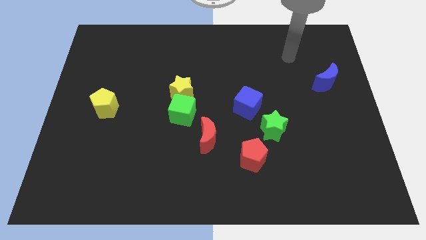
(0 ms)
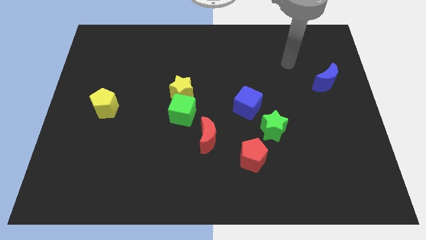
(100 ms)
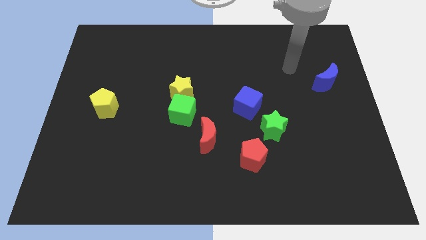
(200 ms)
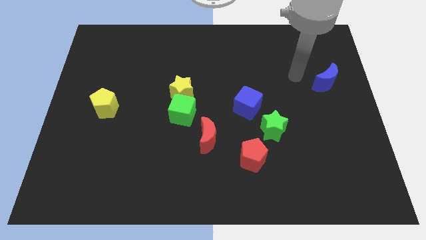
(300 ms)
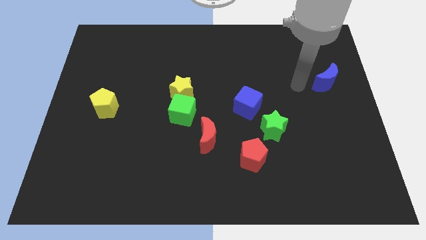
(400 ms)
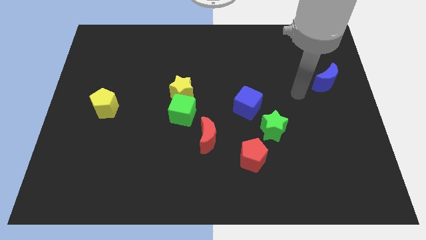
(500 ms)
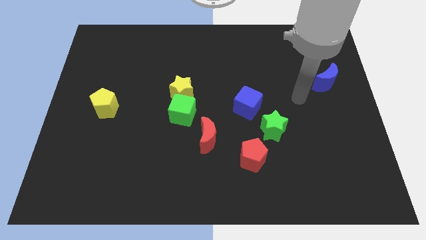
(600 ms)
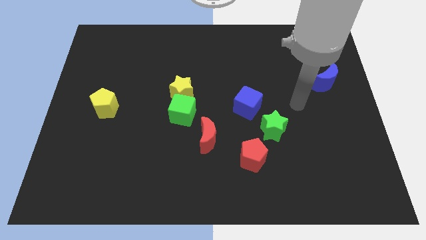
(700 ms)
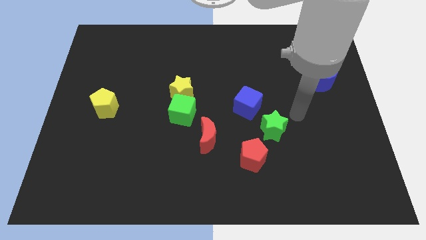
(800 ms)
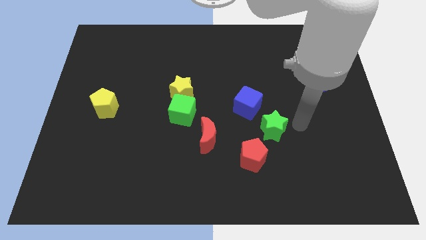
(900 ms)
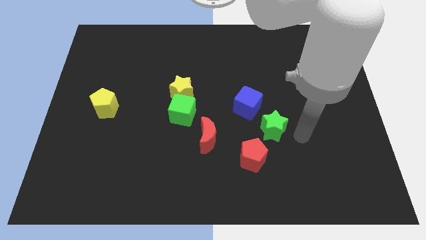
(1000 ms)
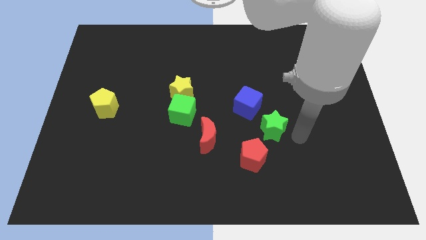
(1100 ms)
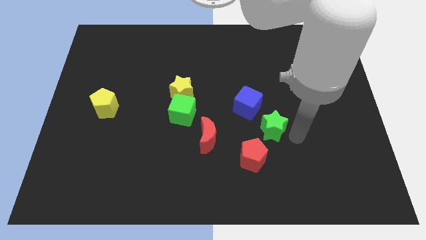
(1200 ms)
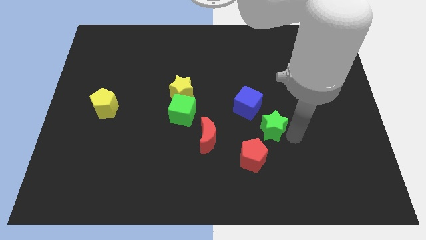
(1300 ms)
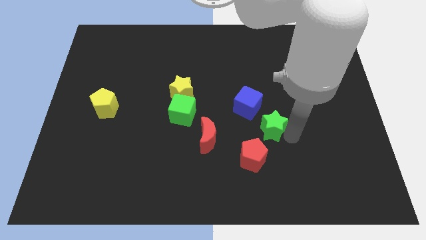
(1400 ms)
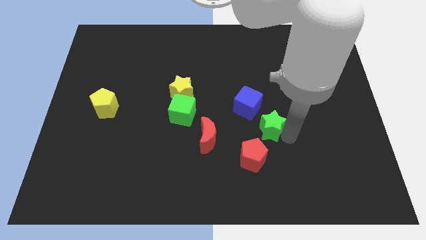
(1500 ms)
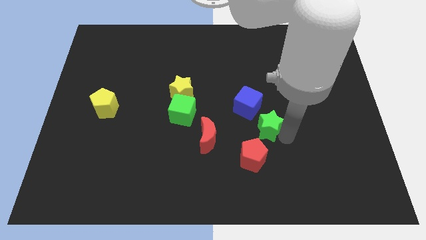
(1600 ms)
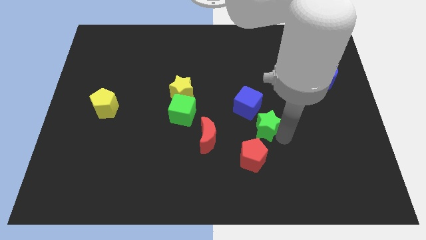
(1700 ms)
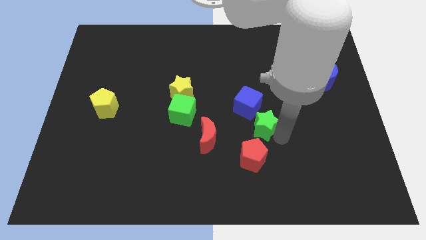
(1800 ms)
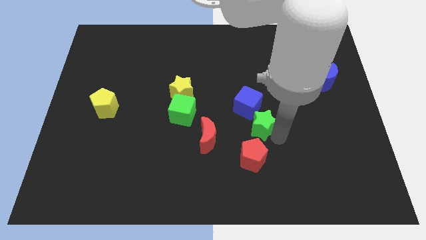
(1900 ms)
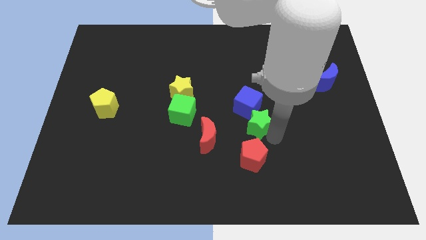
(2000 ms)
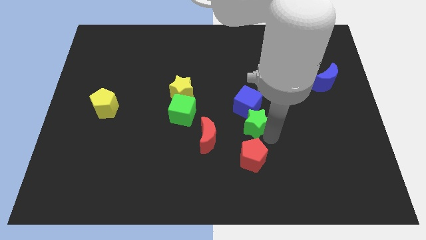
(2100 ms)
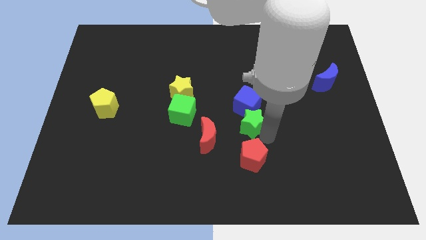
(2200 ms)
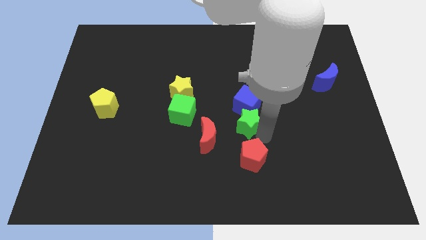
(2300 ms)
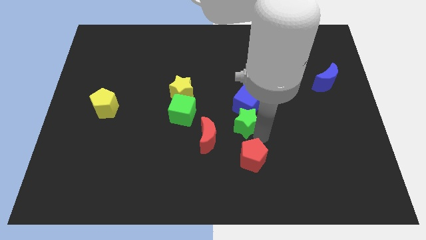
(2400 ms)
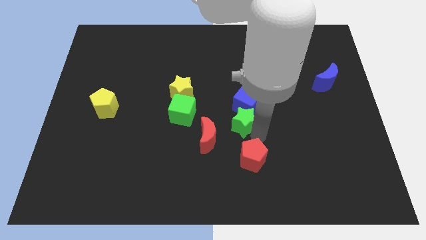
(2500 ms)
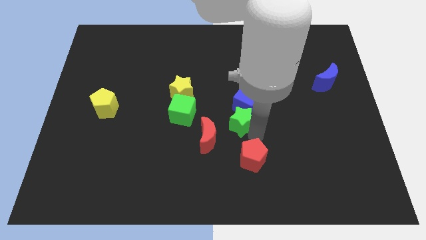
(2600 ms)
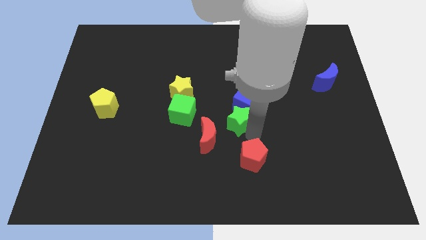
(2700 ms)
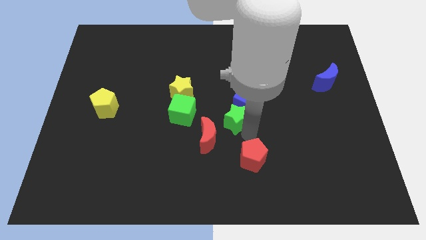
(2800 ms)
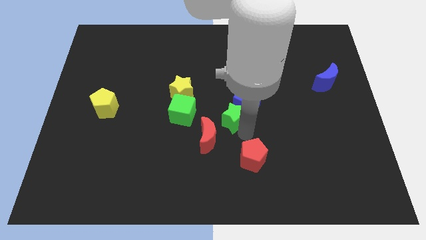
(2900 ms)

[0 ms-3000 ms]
push the green star slightly diagonally upwards and left

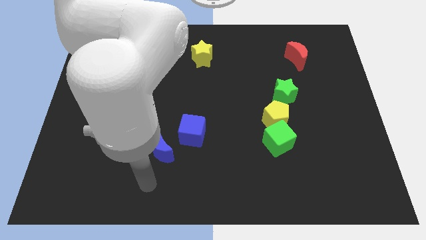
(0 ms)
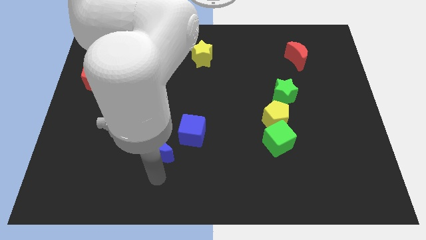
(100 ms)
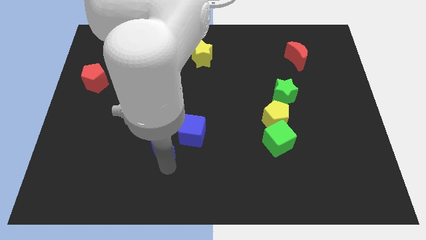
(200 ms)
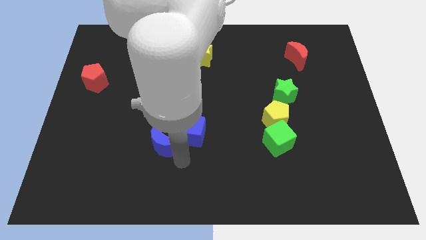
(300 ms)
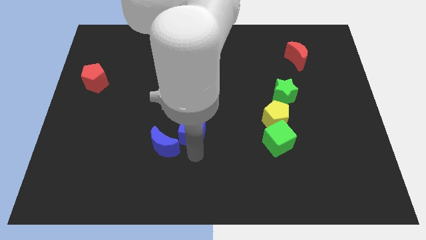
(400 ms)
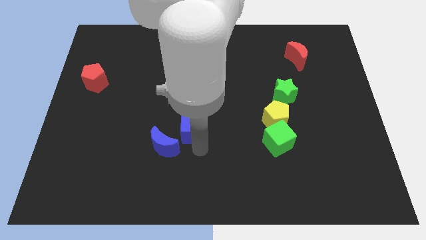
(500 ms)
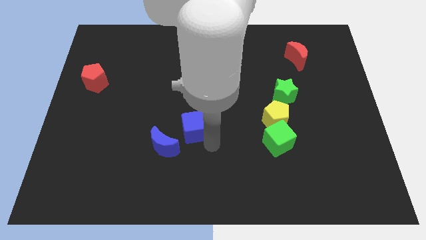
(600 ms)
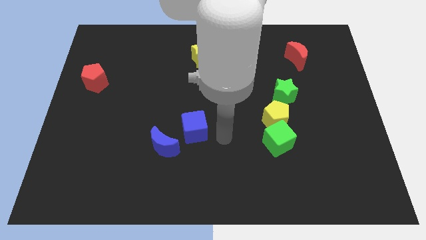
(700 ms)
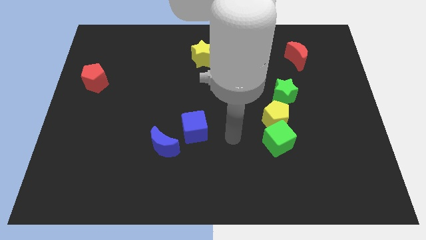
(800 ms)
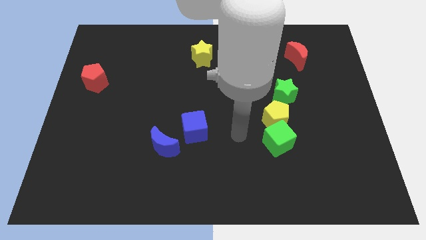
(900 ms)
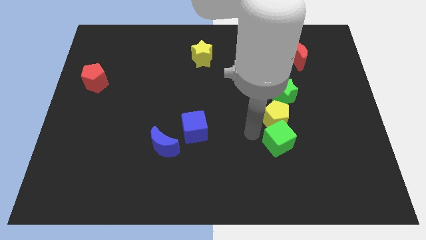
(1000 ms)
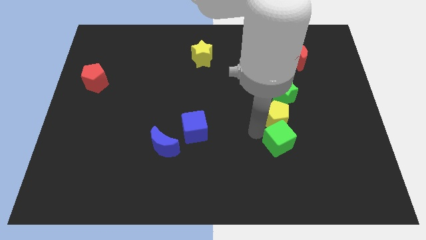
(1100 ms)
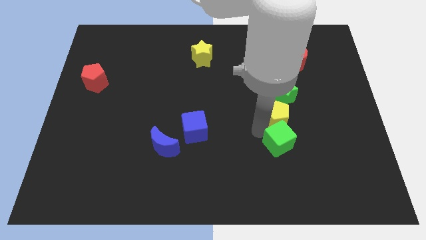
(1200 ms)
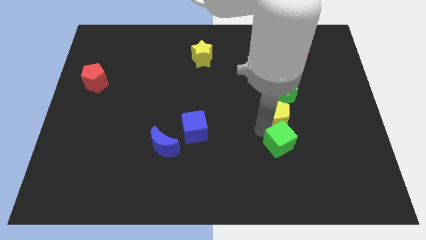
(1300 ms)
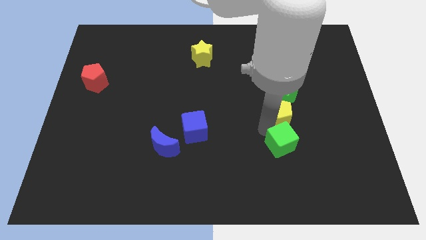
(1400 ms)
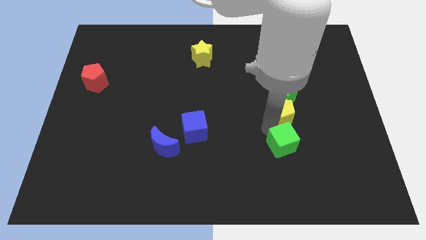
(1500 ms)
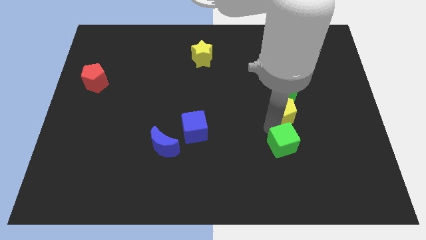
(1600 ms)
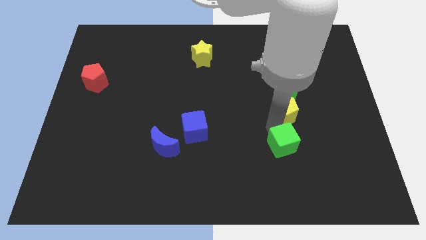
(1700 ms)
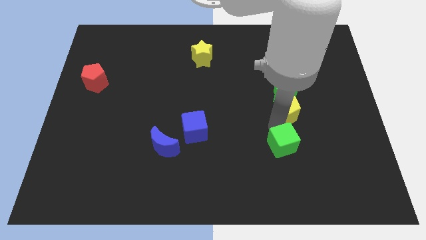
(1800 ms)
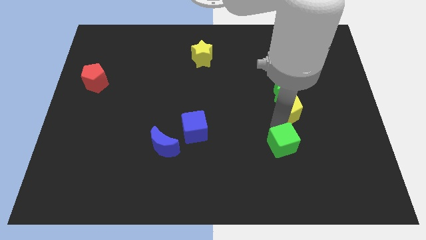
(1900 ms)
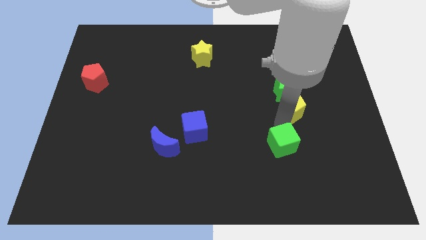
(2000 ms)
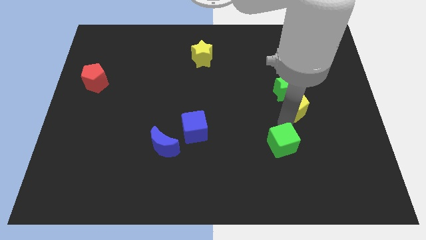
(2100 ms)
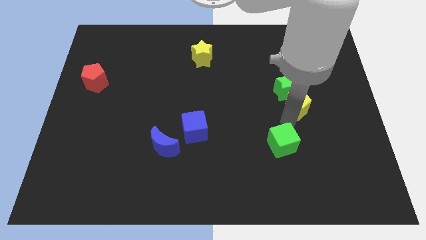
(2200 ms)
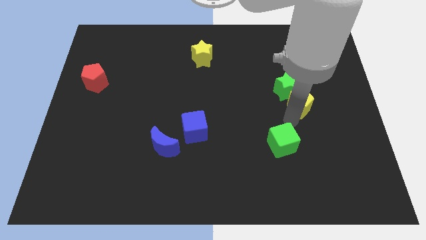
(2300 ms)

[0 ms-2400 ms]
push the yellow pentagon upwards and then to the right slightly

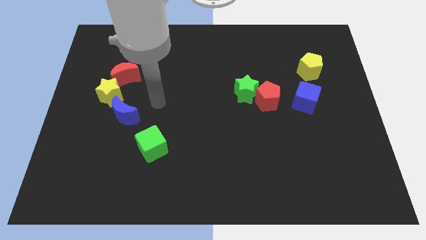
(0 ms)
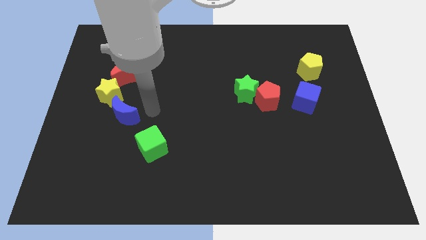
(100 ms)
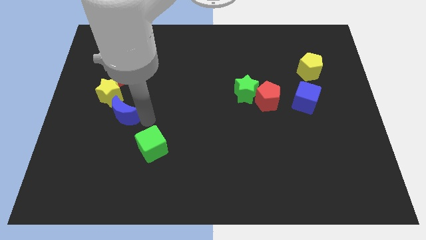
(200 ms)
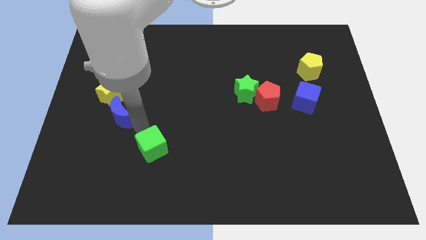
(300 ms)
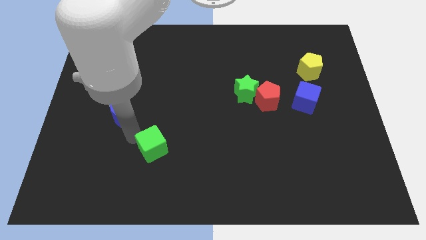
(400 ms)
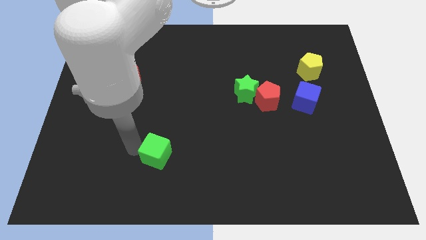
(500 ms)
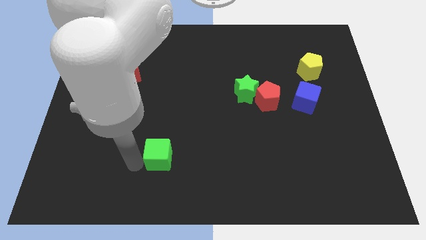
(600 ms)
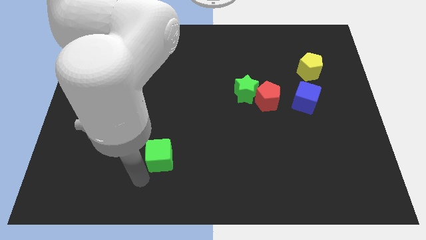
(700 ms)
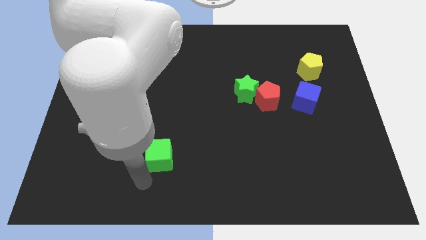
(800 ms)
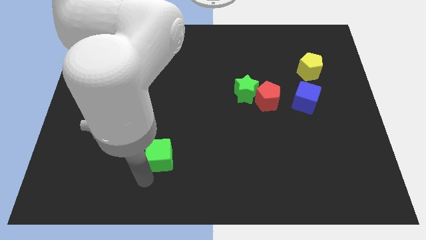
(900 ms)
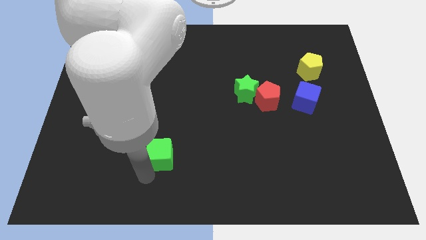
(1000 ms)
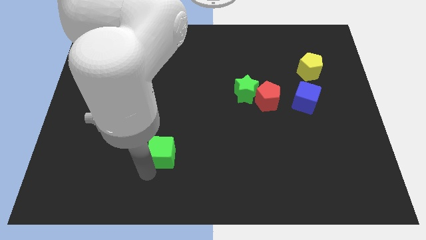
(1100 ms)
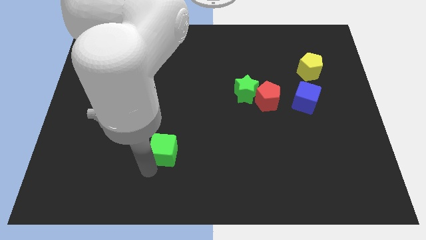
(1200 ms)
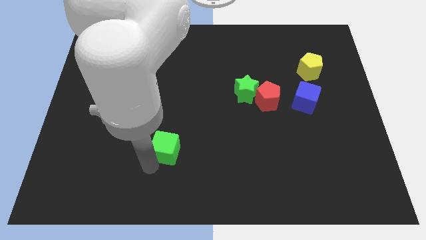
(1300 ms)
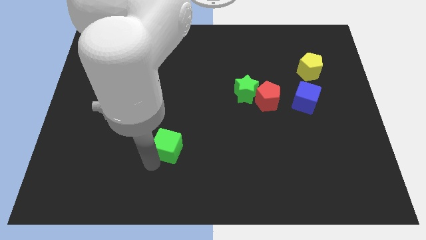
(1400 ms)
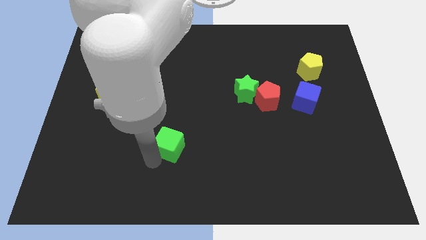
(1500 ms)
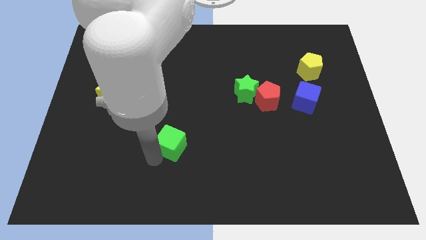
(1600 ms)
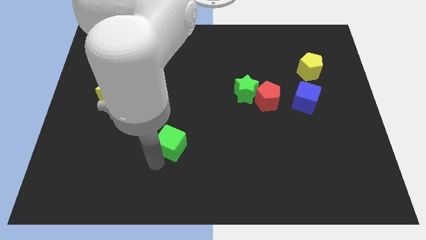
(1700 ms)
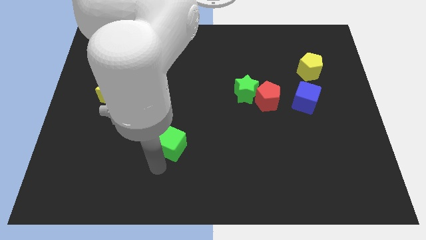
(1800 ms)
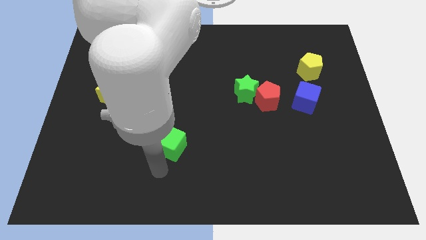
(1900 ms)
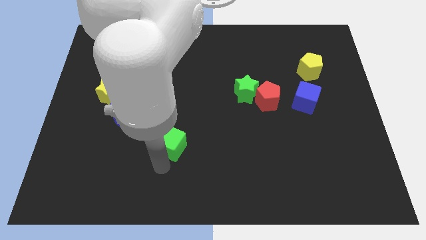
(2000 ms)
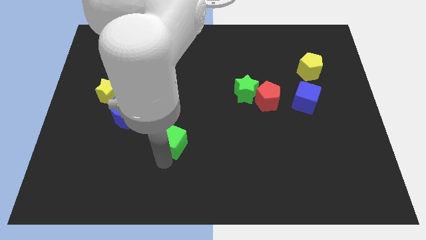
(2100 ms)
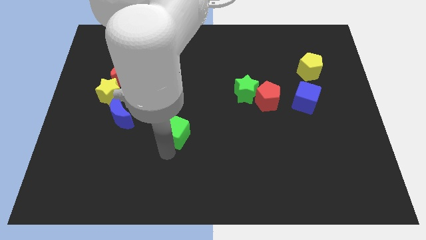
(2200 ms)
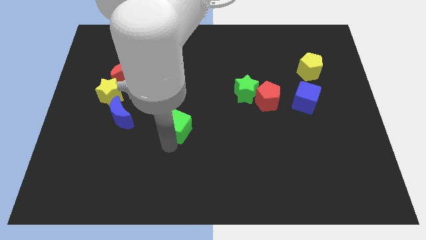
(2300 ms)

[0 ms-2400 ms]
slightly move the green cube up and then to the right
